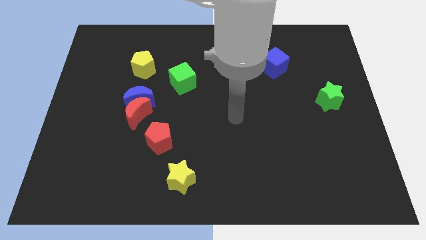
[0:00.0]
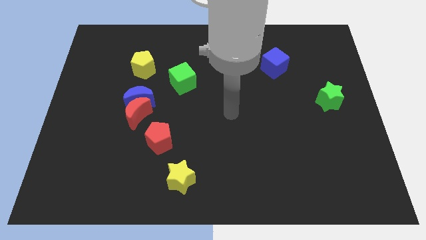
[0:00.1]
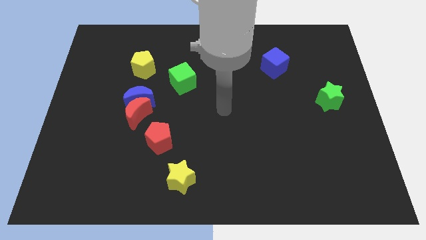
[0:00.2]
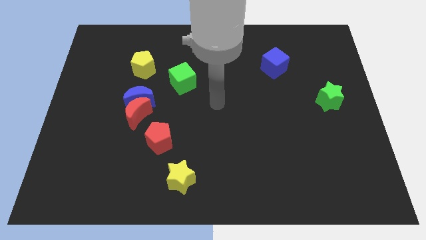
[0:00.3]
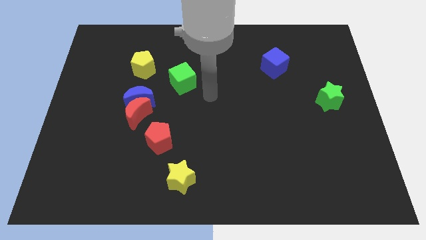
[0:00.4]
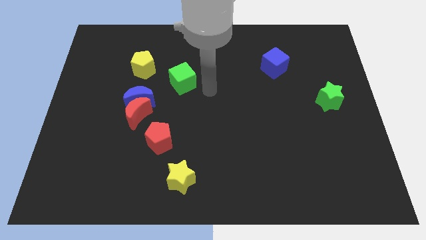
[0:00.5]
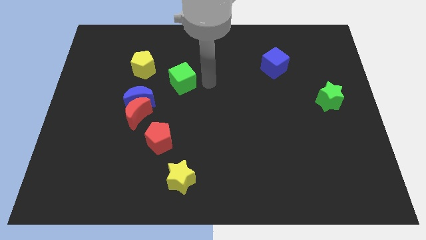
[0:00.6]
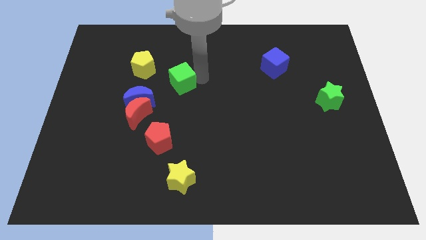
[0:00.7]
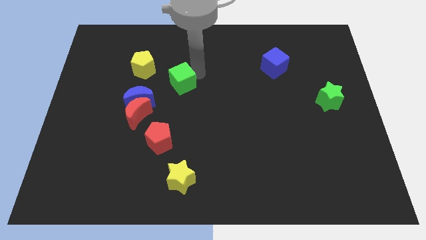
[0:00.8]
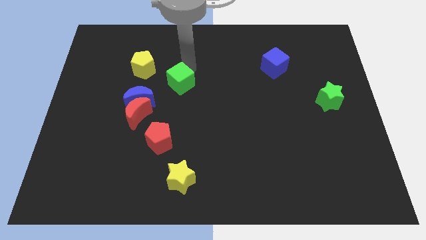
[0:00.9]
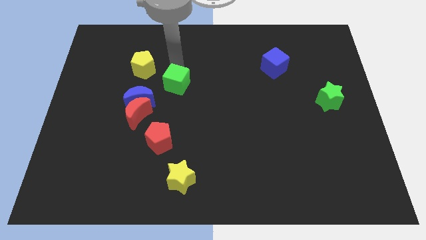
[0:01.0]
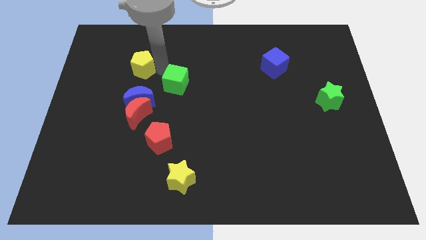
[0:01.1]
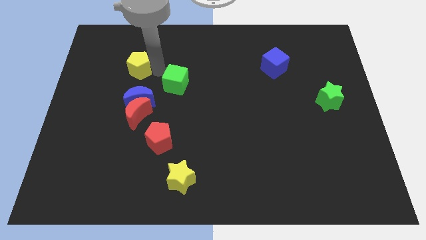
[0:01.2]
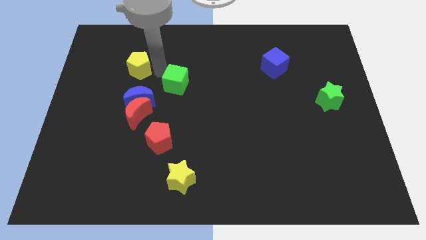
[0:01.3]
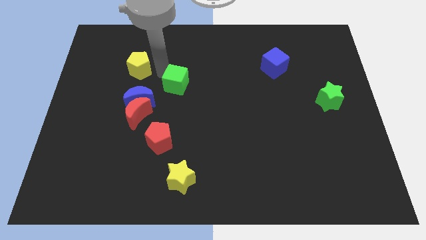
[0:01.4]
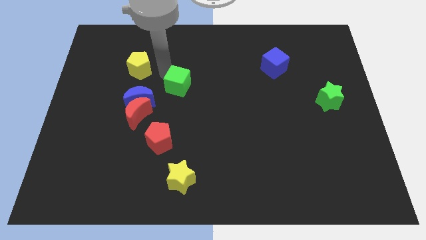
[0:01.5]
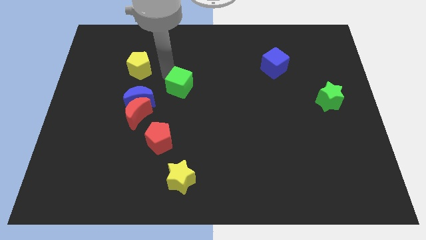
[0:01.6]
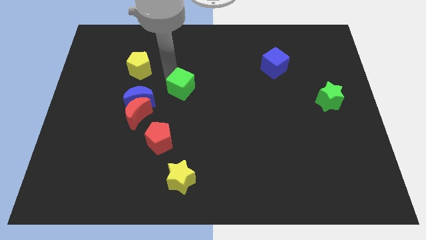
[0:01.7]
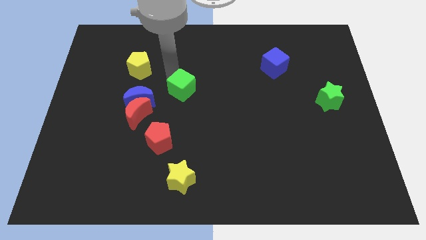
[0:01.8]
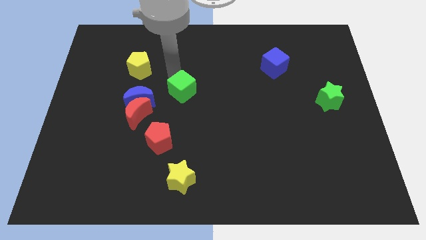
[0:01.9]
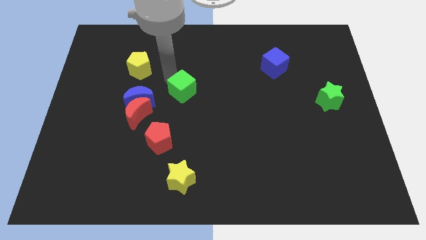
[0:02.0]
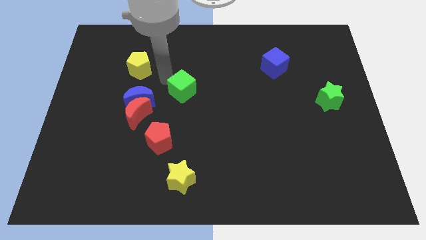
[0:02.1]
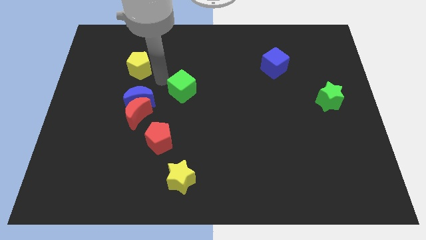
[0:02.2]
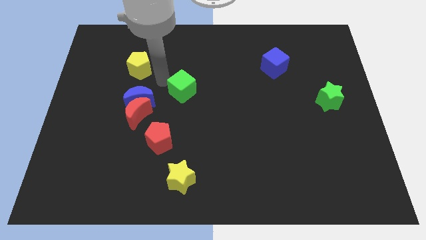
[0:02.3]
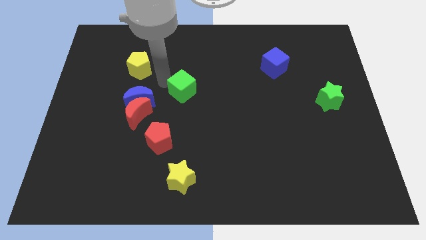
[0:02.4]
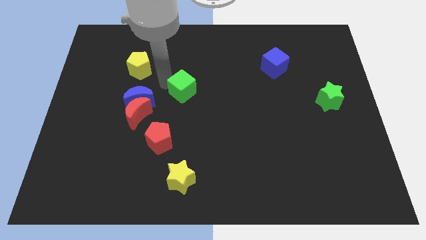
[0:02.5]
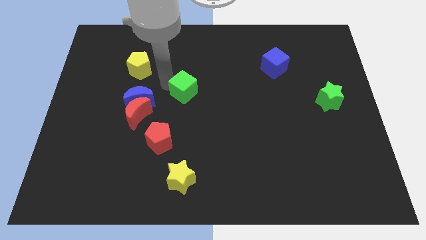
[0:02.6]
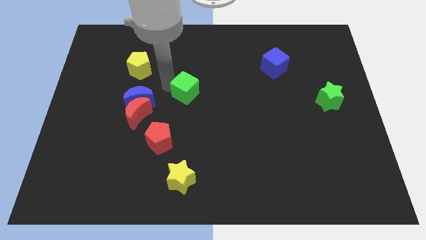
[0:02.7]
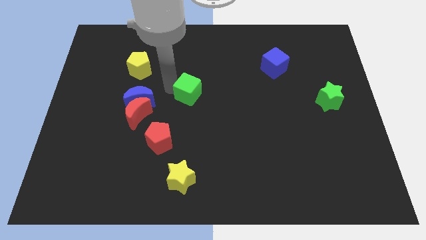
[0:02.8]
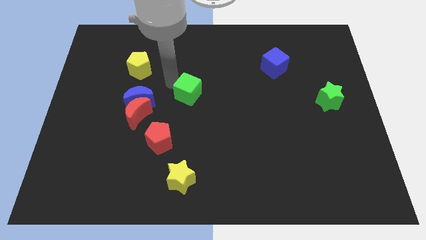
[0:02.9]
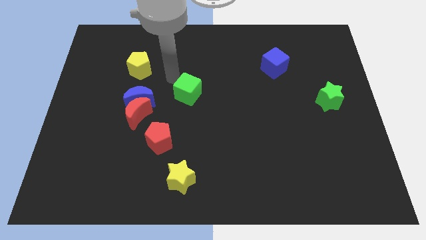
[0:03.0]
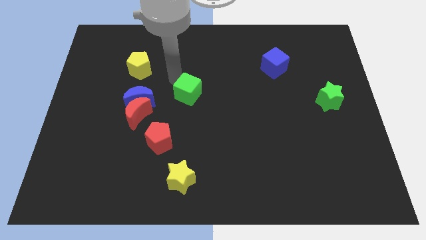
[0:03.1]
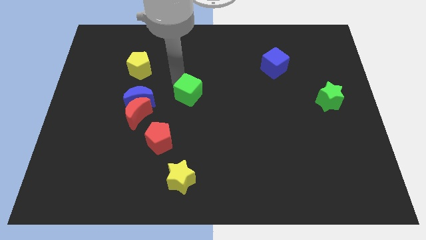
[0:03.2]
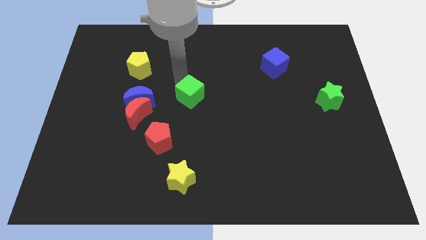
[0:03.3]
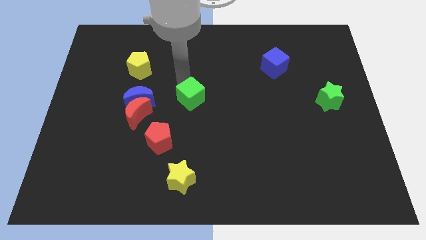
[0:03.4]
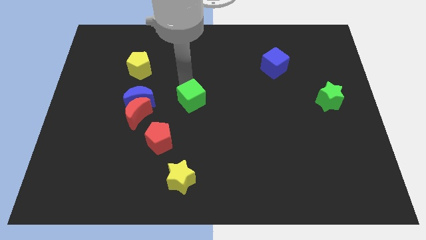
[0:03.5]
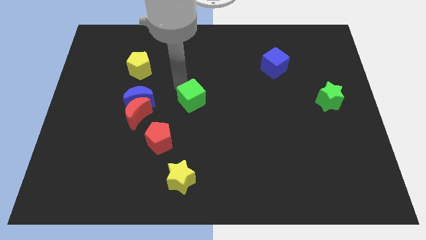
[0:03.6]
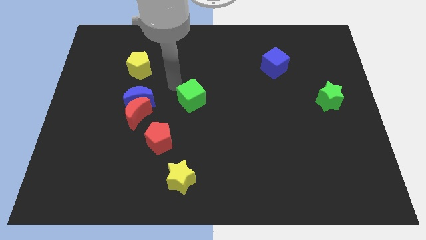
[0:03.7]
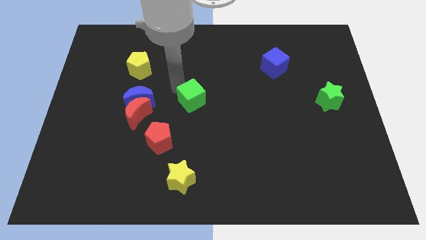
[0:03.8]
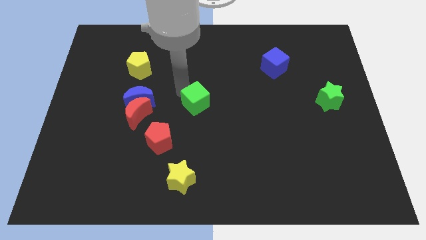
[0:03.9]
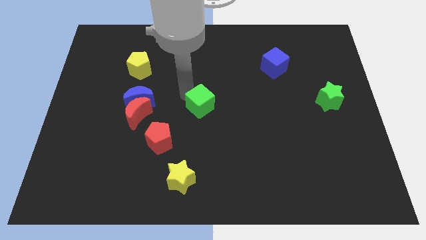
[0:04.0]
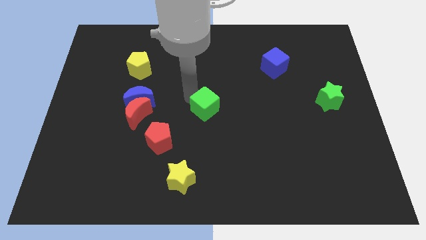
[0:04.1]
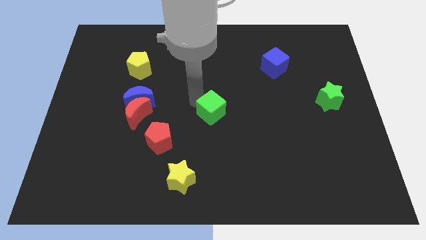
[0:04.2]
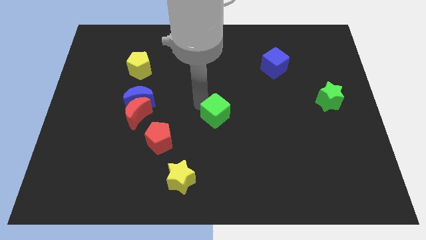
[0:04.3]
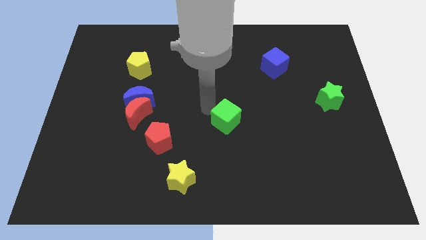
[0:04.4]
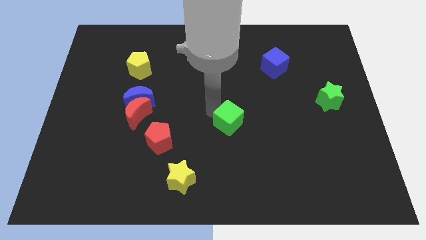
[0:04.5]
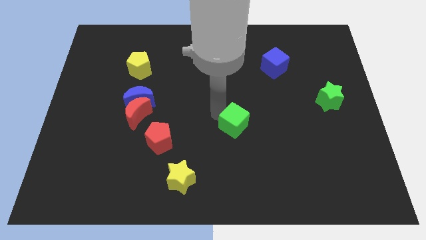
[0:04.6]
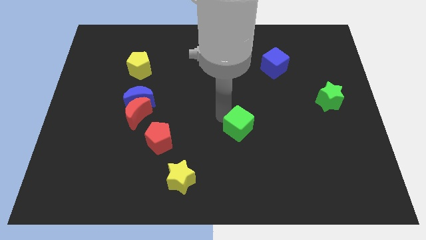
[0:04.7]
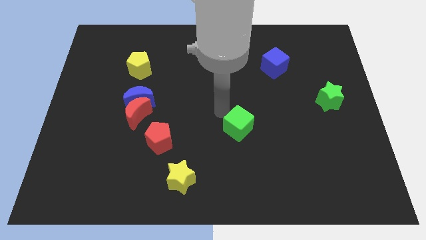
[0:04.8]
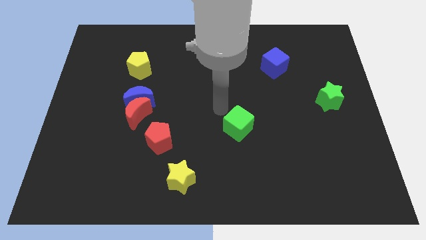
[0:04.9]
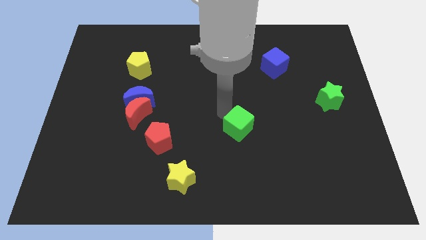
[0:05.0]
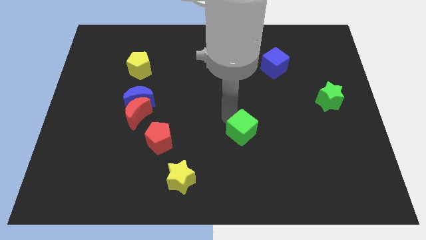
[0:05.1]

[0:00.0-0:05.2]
move the green cube downwards and right diagonally

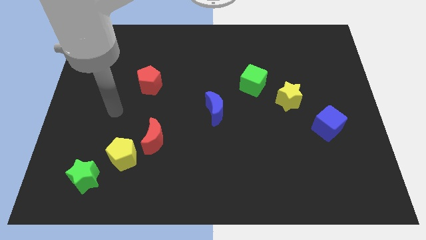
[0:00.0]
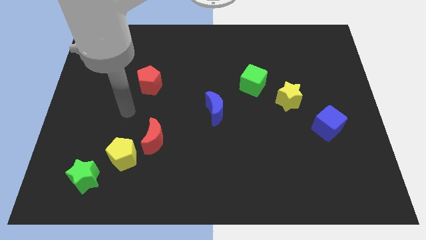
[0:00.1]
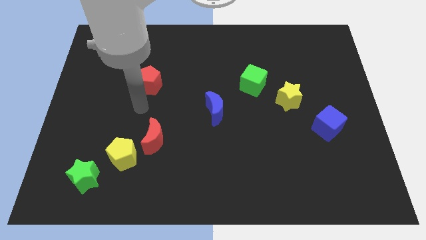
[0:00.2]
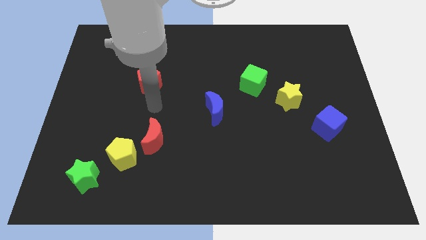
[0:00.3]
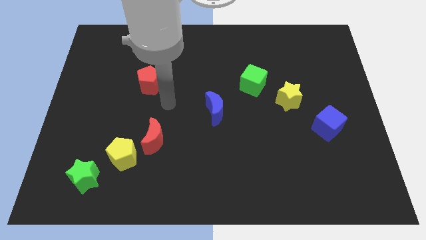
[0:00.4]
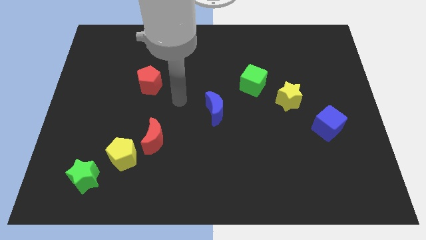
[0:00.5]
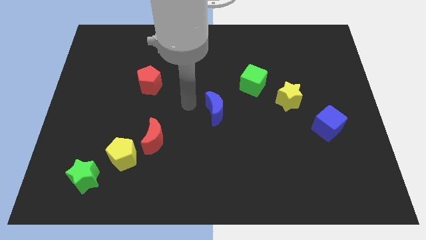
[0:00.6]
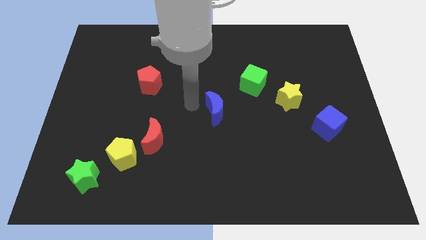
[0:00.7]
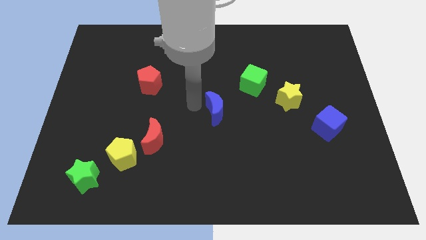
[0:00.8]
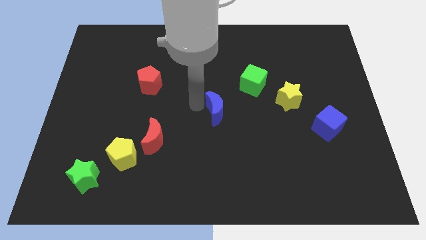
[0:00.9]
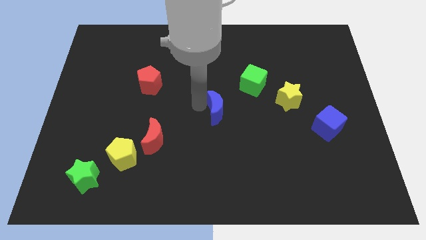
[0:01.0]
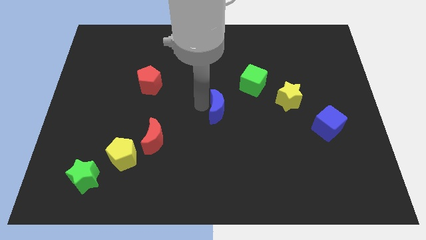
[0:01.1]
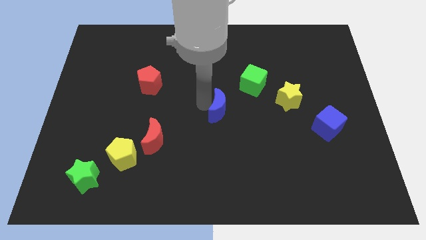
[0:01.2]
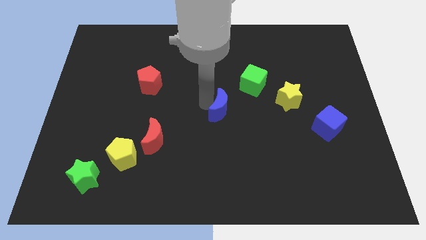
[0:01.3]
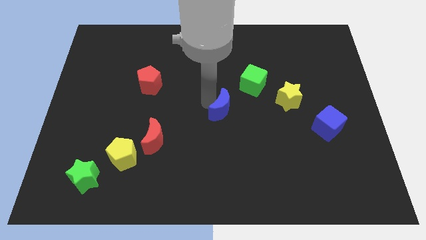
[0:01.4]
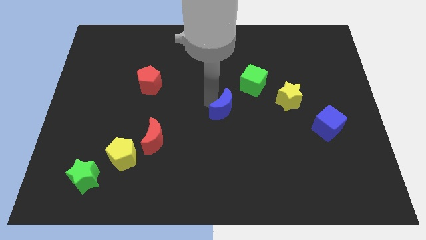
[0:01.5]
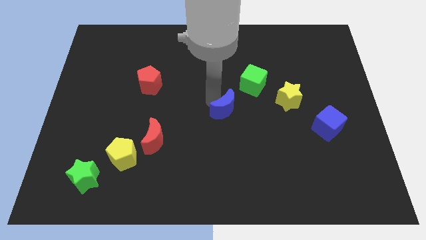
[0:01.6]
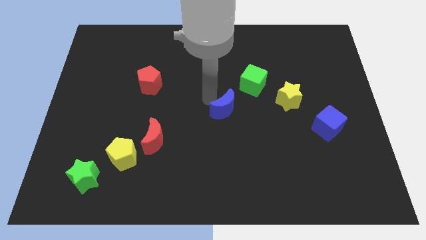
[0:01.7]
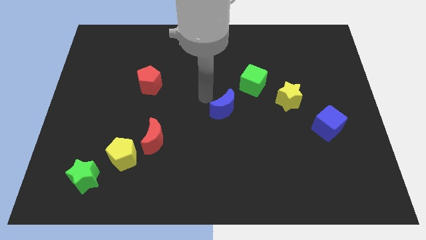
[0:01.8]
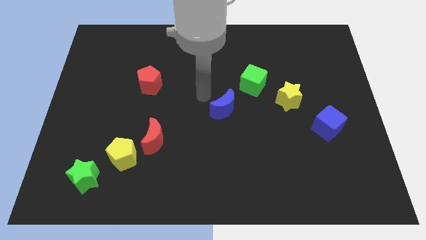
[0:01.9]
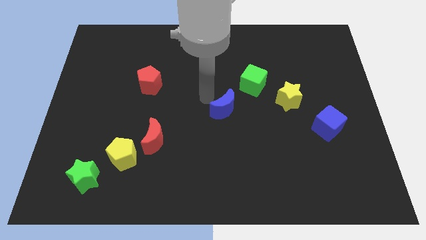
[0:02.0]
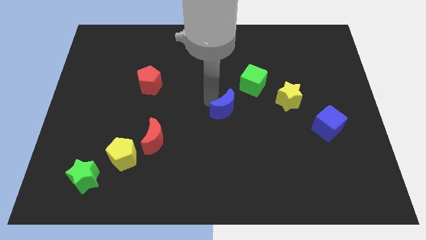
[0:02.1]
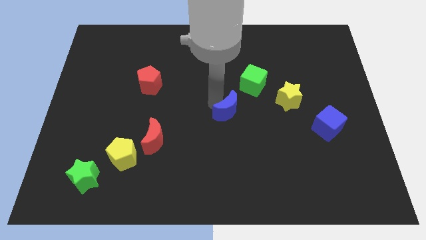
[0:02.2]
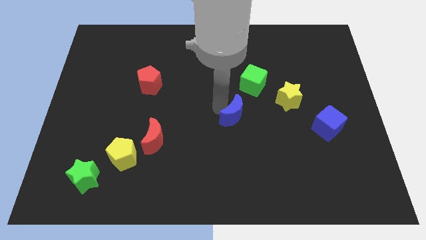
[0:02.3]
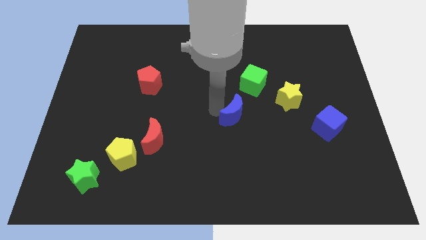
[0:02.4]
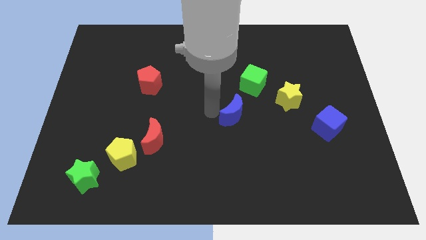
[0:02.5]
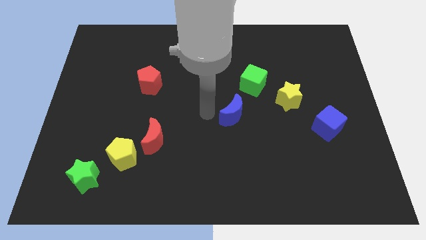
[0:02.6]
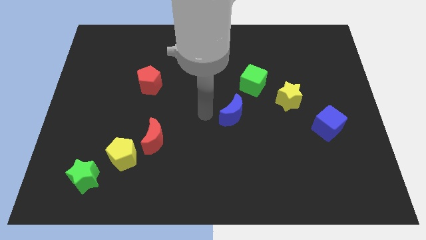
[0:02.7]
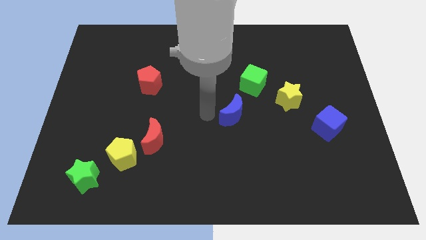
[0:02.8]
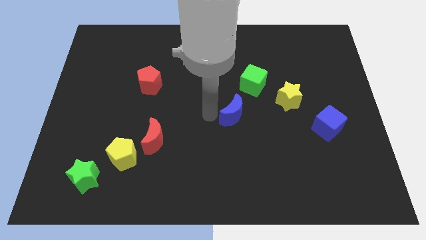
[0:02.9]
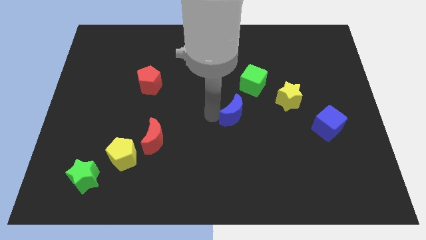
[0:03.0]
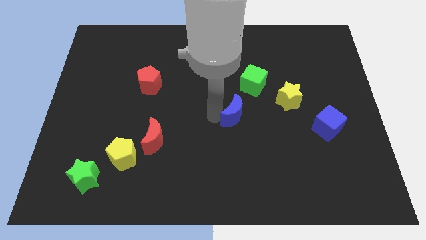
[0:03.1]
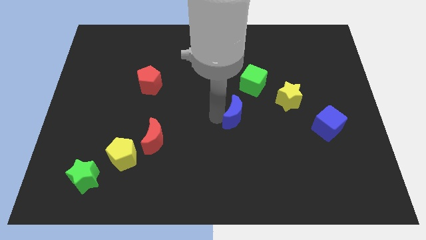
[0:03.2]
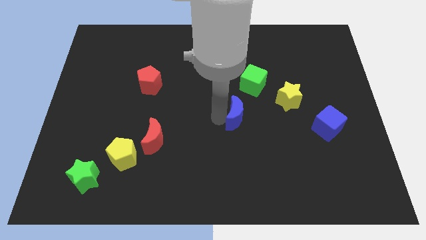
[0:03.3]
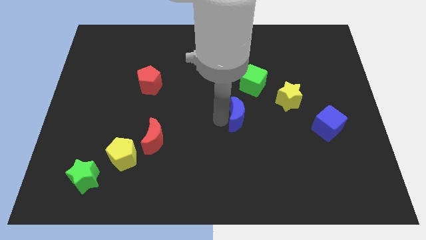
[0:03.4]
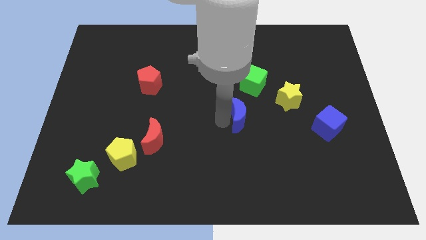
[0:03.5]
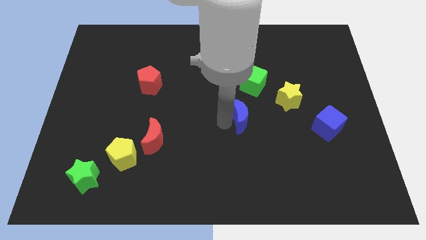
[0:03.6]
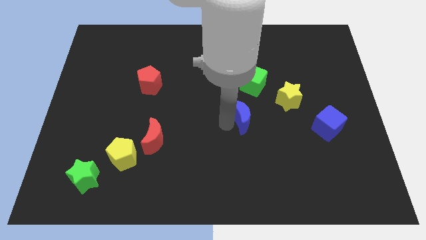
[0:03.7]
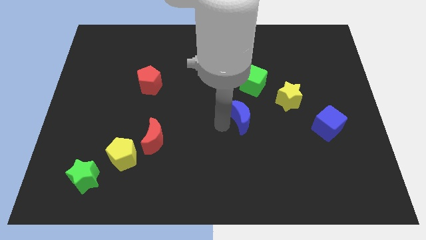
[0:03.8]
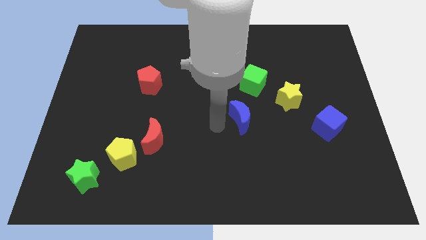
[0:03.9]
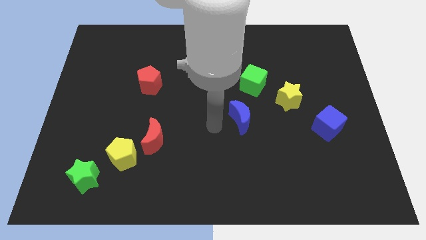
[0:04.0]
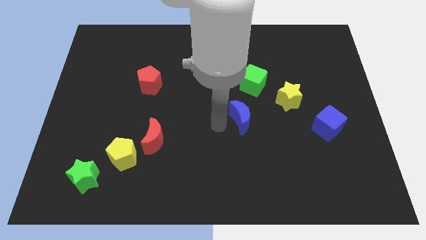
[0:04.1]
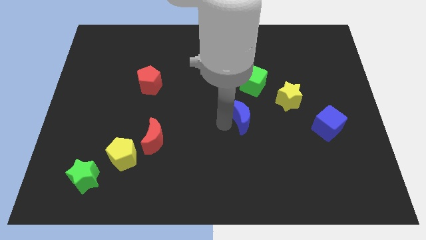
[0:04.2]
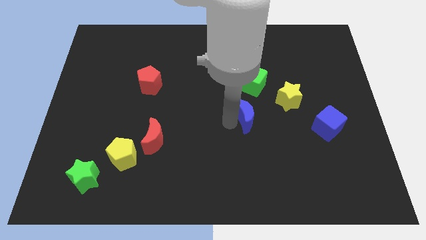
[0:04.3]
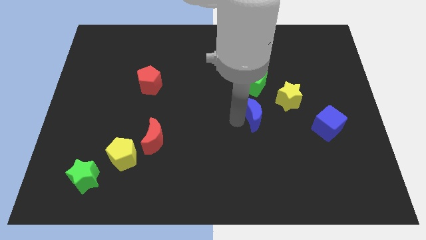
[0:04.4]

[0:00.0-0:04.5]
slide the blue moon to the right a little bit
